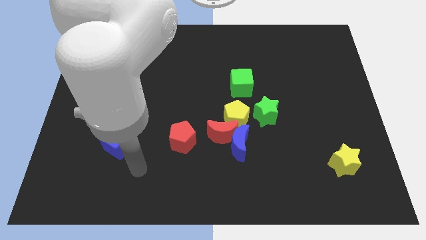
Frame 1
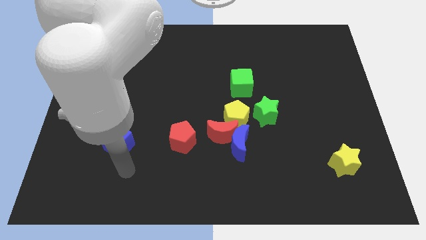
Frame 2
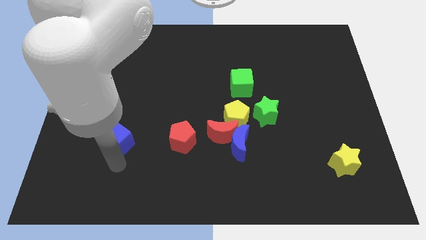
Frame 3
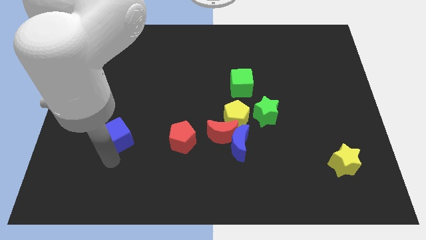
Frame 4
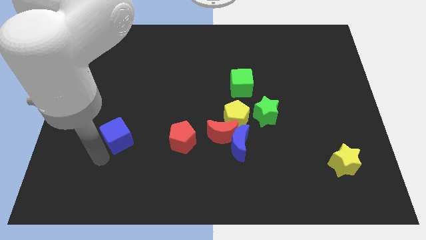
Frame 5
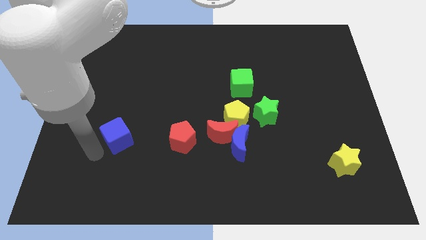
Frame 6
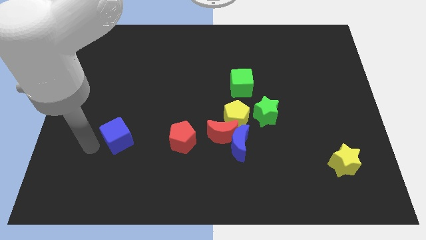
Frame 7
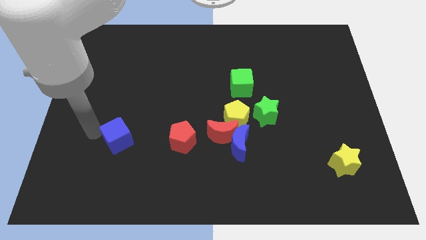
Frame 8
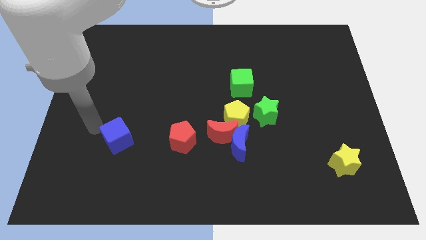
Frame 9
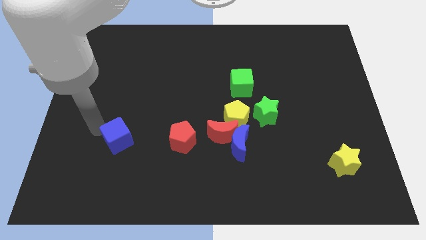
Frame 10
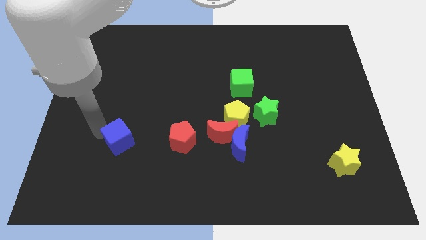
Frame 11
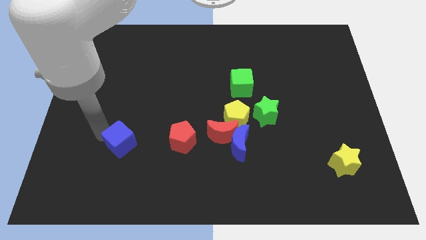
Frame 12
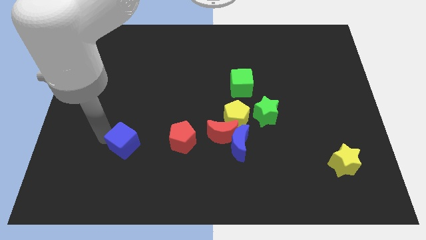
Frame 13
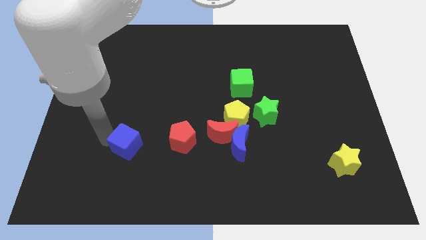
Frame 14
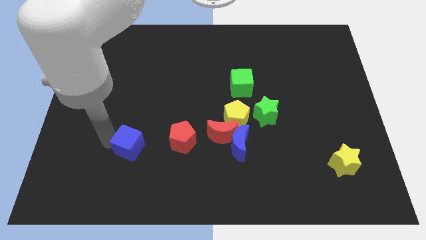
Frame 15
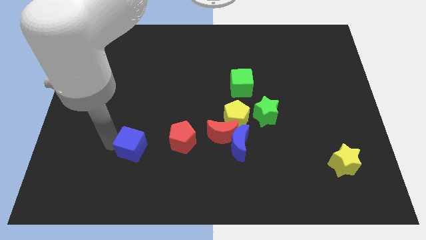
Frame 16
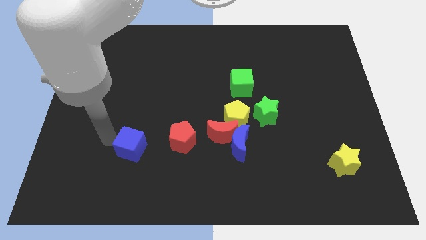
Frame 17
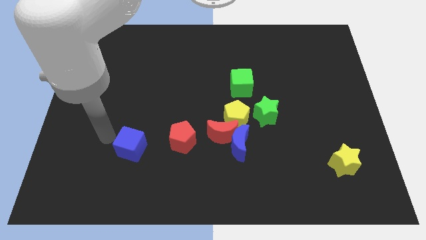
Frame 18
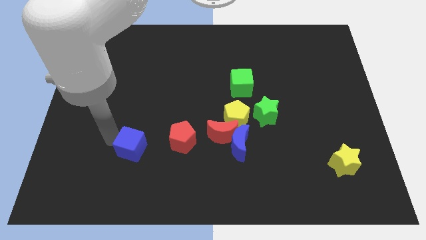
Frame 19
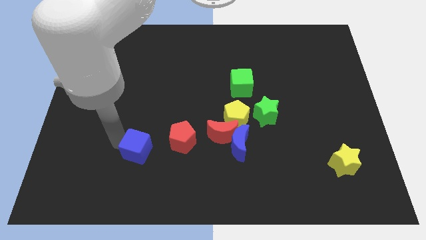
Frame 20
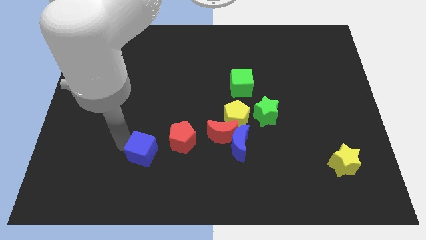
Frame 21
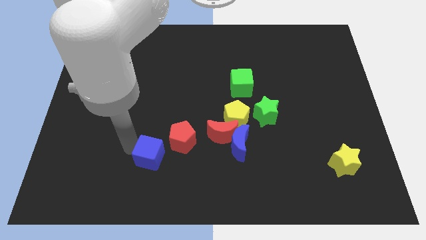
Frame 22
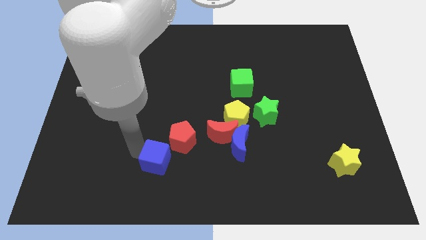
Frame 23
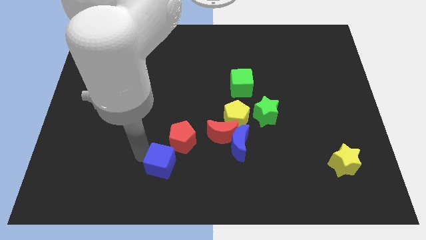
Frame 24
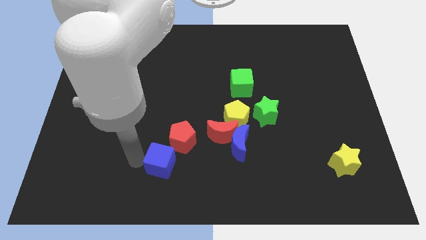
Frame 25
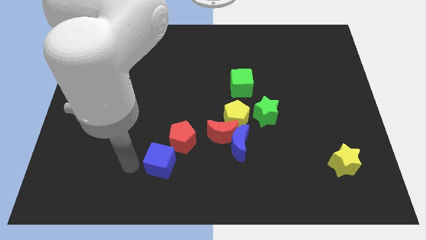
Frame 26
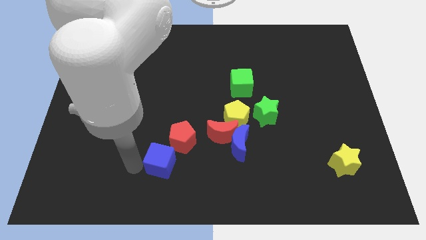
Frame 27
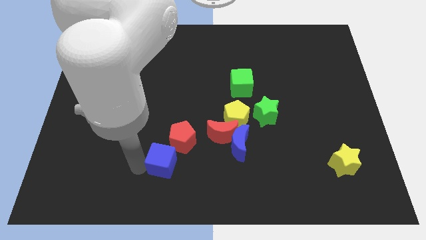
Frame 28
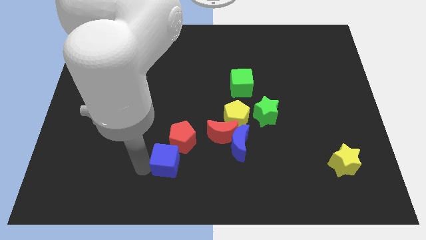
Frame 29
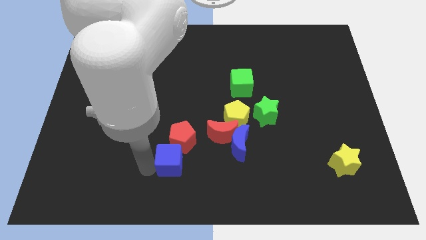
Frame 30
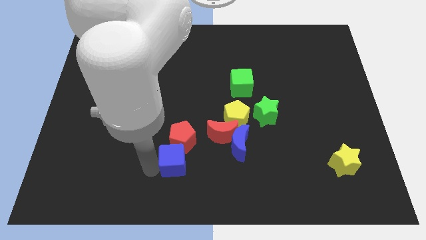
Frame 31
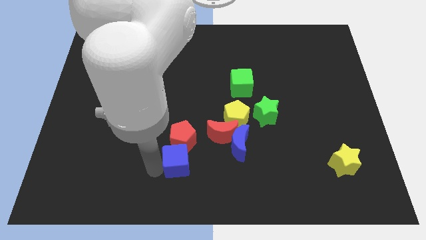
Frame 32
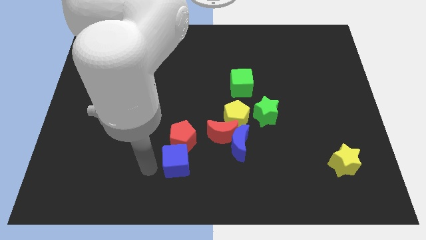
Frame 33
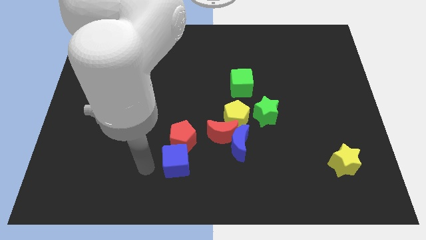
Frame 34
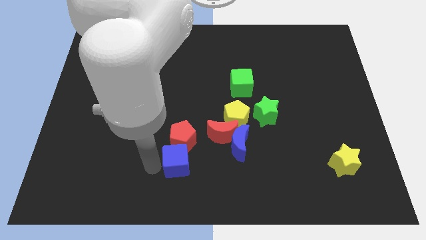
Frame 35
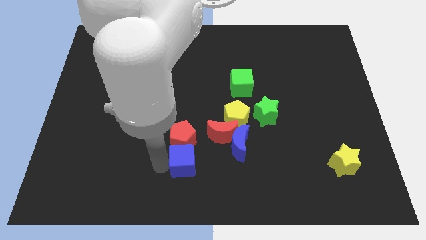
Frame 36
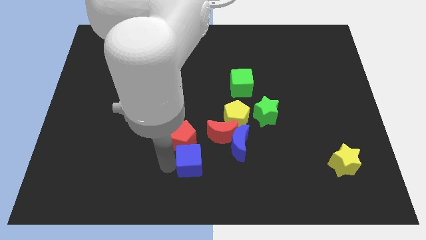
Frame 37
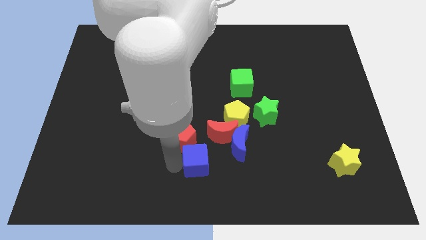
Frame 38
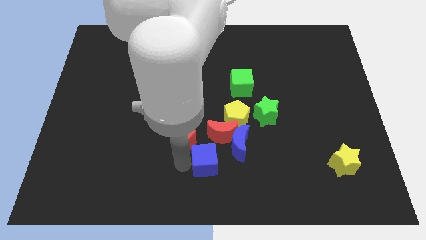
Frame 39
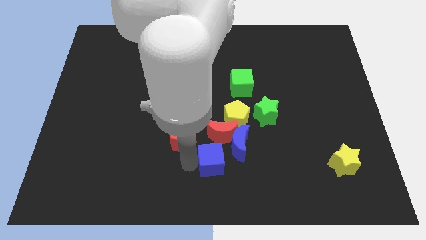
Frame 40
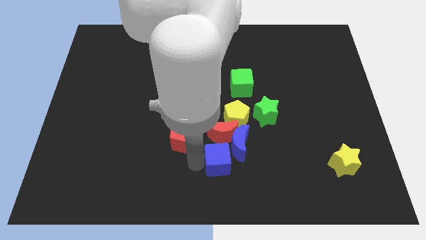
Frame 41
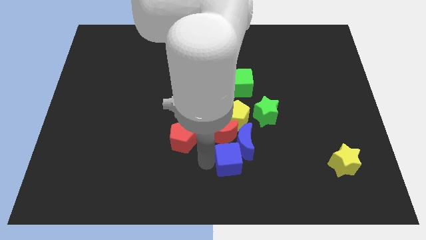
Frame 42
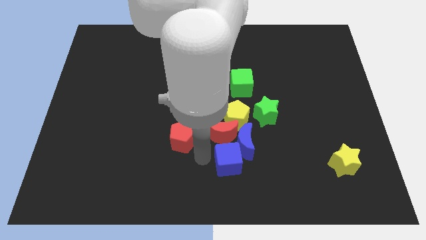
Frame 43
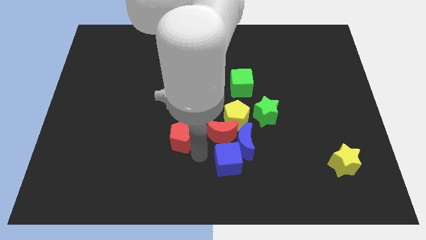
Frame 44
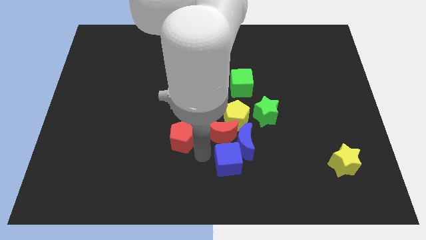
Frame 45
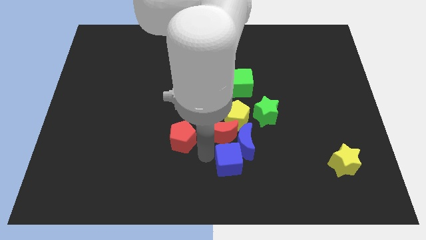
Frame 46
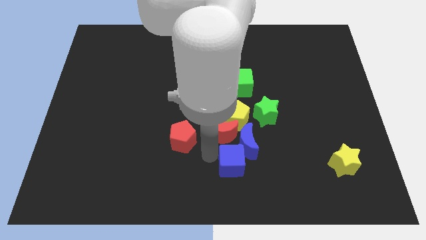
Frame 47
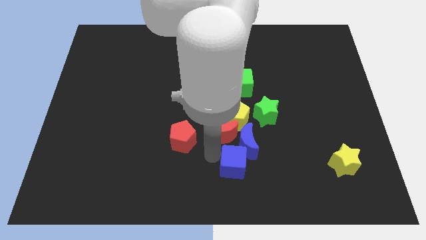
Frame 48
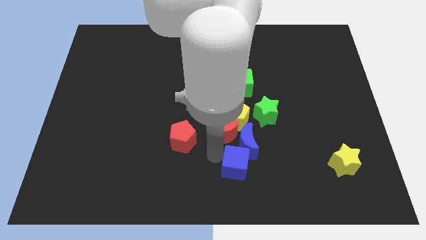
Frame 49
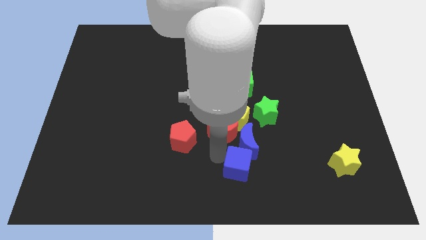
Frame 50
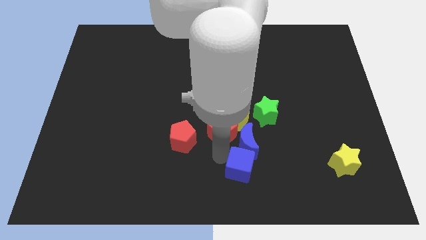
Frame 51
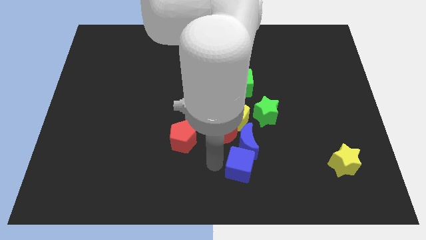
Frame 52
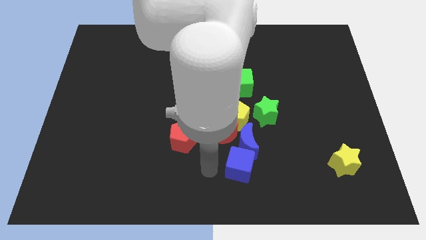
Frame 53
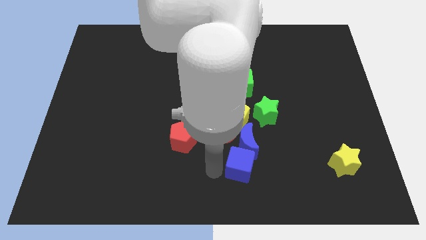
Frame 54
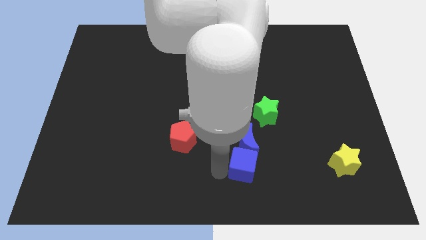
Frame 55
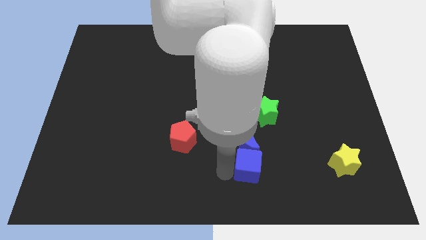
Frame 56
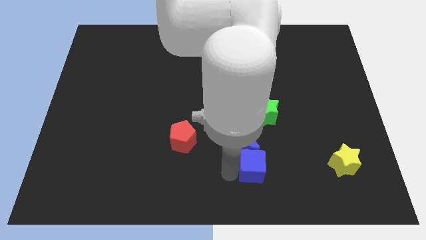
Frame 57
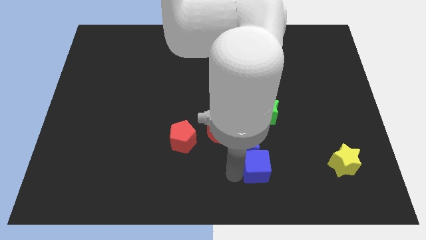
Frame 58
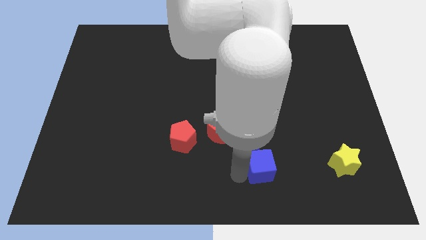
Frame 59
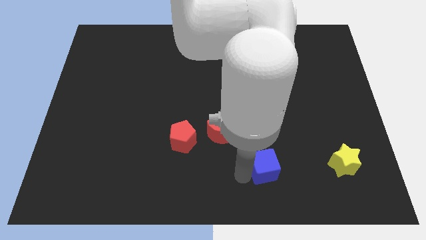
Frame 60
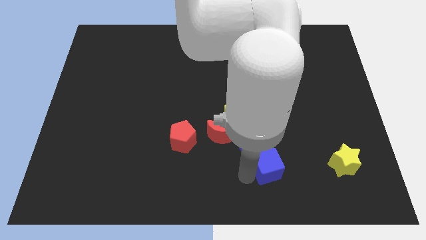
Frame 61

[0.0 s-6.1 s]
push the blue cube to the left side of the yellow star

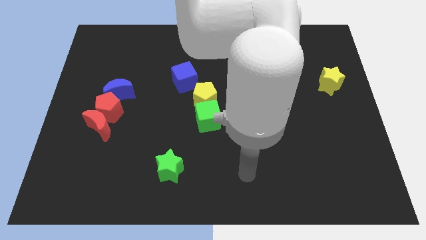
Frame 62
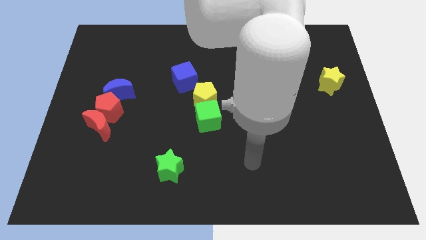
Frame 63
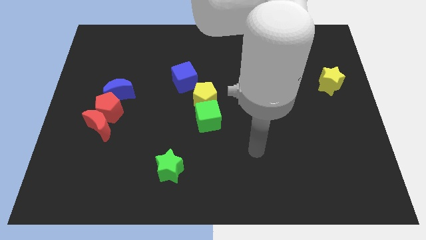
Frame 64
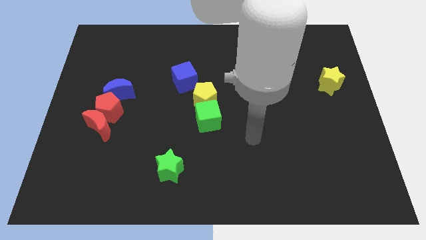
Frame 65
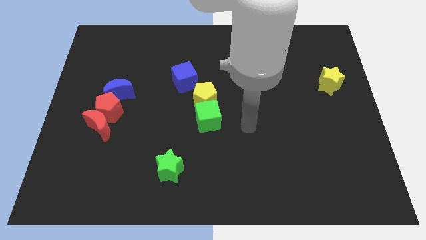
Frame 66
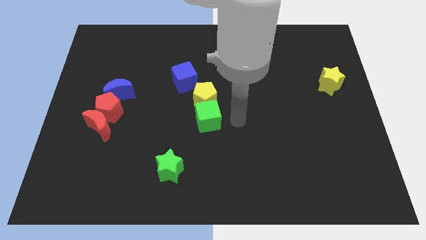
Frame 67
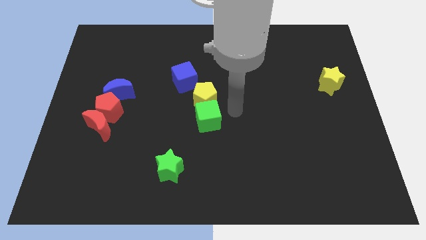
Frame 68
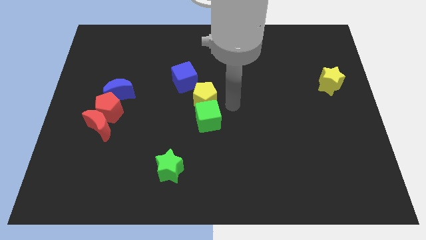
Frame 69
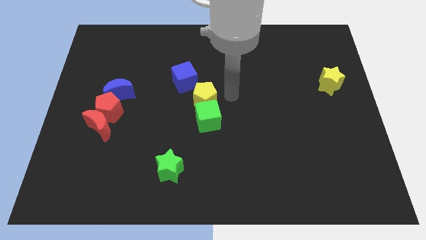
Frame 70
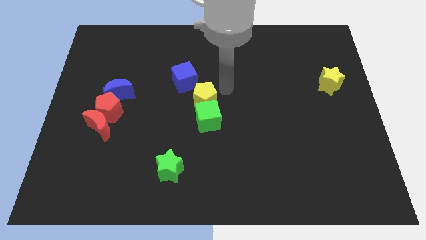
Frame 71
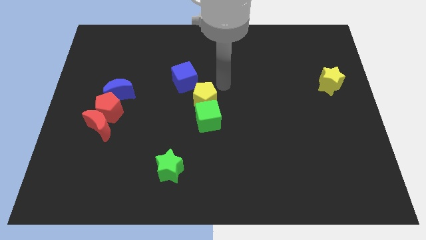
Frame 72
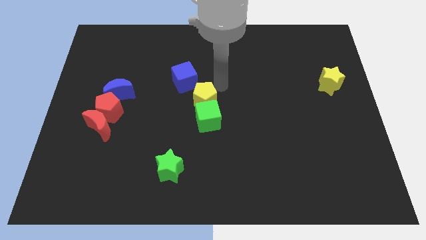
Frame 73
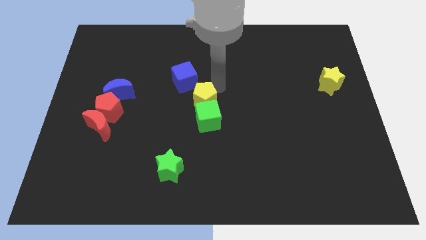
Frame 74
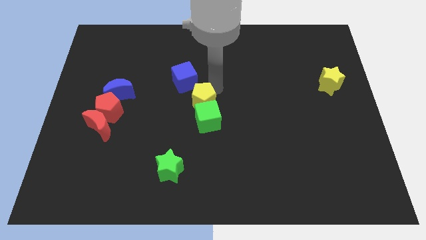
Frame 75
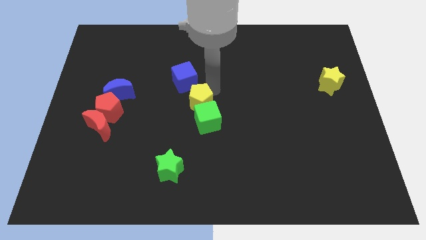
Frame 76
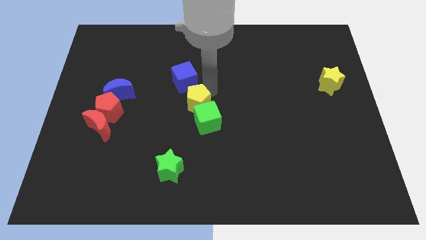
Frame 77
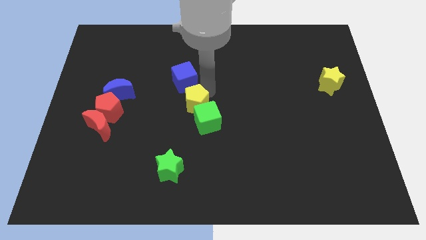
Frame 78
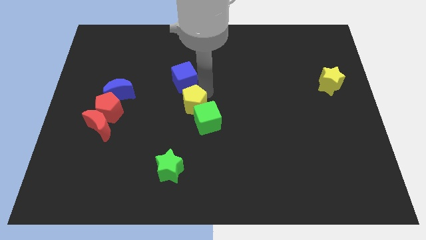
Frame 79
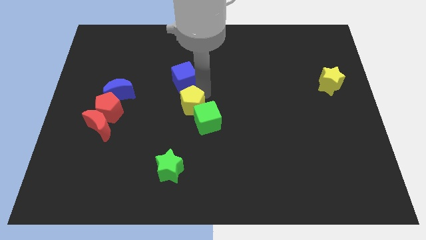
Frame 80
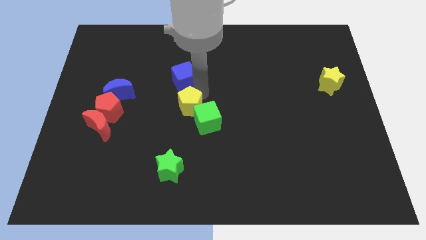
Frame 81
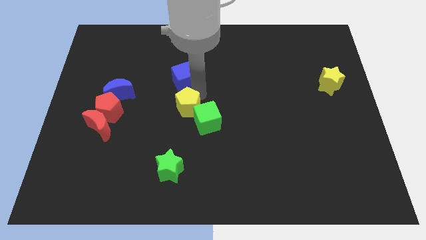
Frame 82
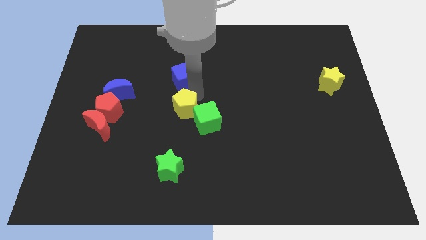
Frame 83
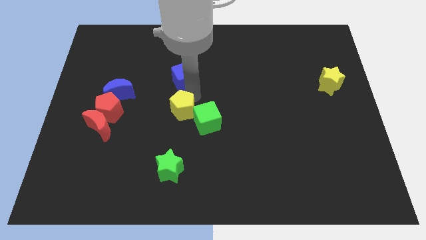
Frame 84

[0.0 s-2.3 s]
slide the yellow pentagon to the top side of the green star
